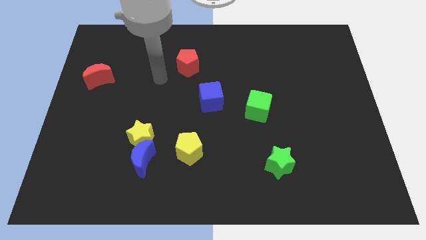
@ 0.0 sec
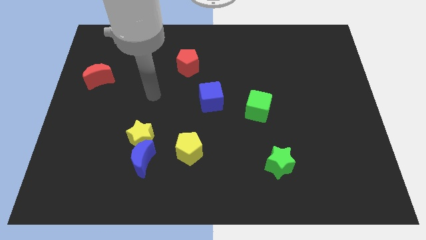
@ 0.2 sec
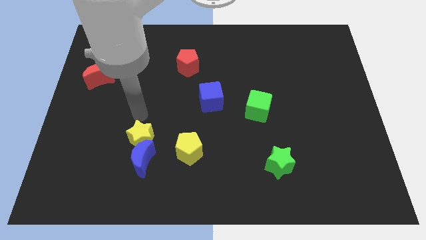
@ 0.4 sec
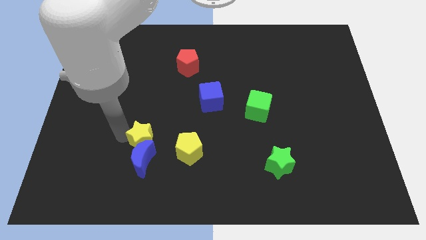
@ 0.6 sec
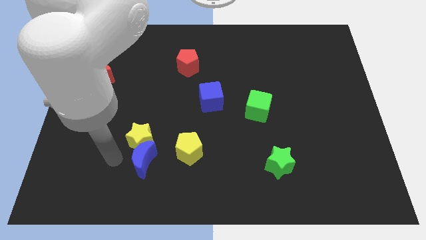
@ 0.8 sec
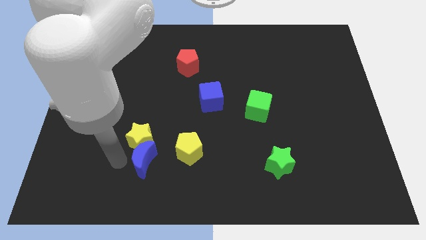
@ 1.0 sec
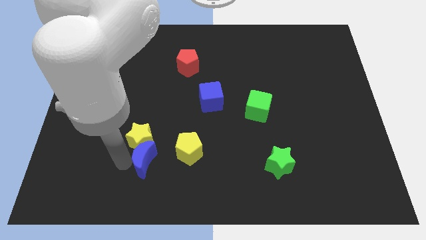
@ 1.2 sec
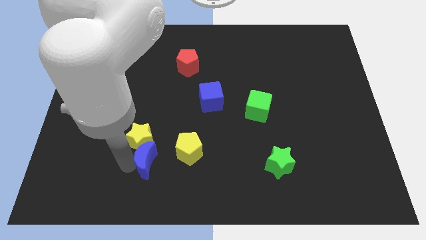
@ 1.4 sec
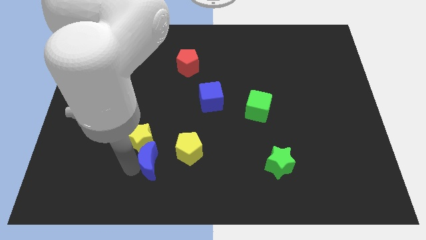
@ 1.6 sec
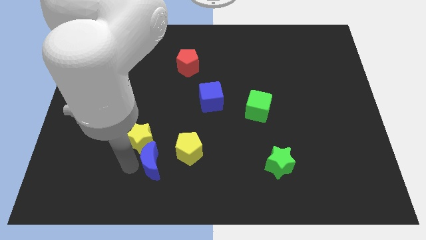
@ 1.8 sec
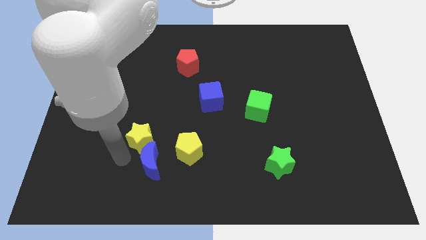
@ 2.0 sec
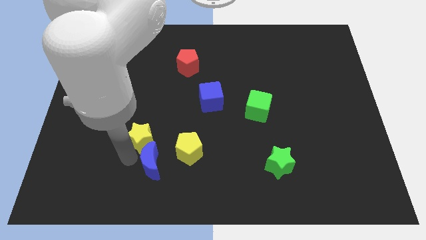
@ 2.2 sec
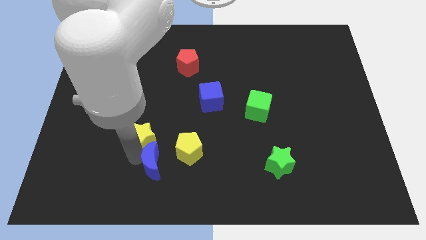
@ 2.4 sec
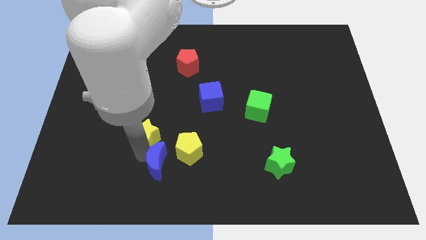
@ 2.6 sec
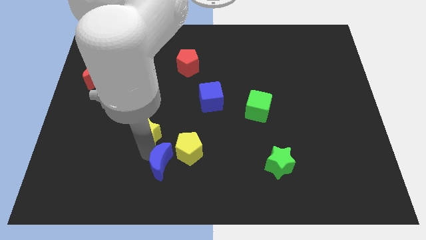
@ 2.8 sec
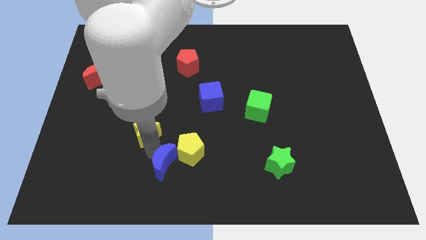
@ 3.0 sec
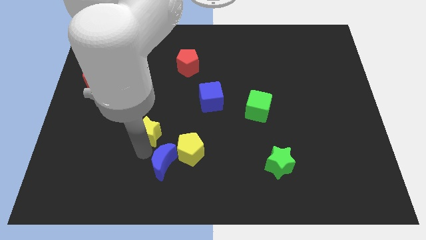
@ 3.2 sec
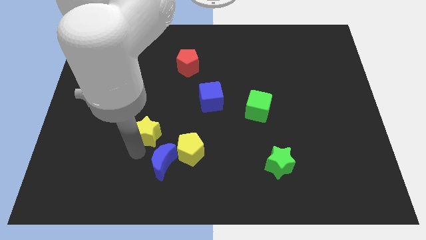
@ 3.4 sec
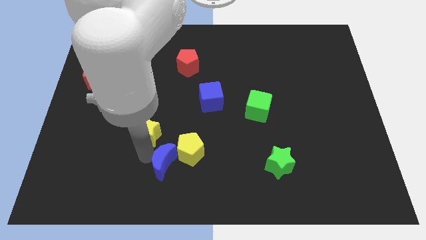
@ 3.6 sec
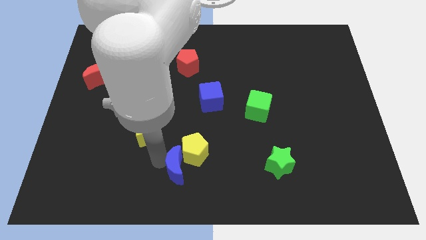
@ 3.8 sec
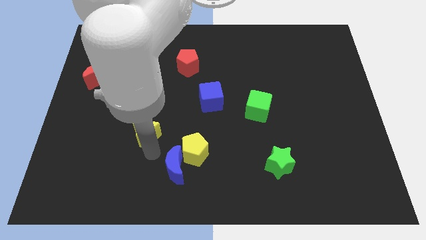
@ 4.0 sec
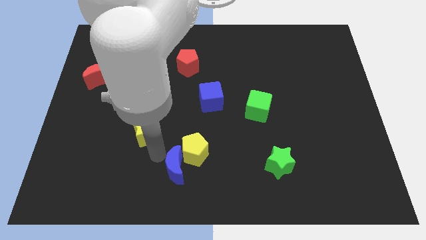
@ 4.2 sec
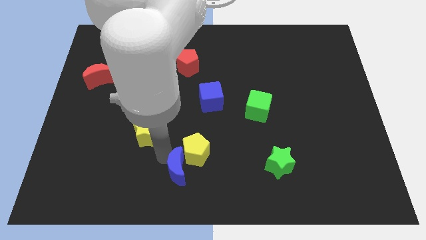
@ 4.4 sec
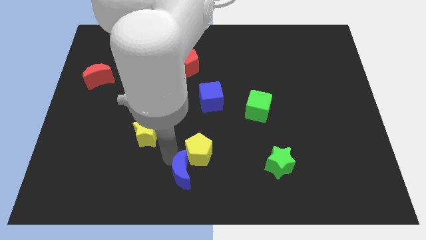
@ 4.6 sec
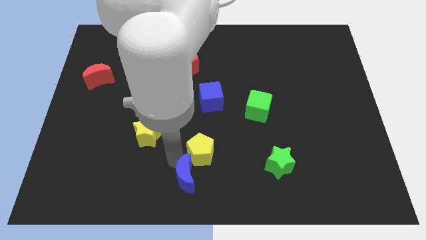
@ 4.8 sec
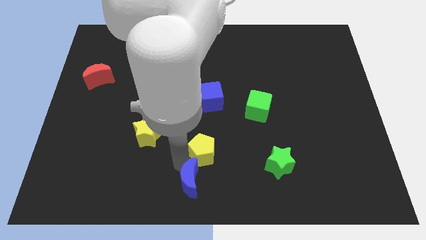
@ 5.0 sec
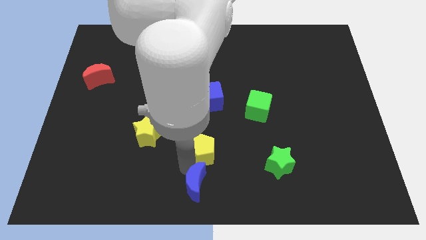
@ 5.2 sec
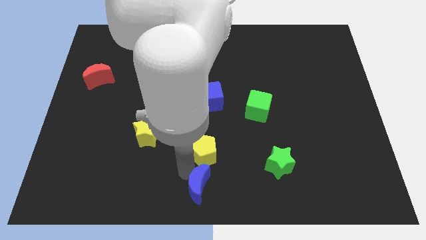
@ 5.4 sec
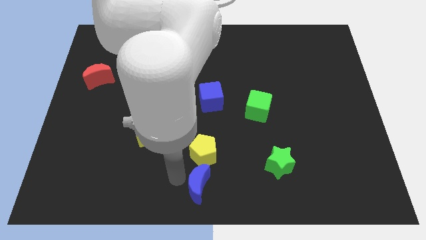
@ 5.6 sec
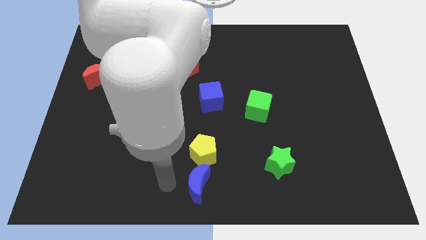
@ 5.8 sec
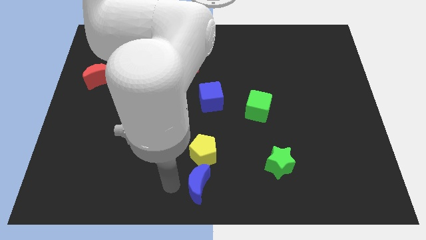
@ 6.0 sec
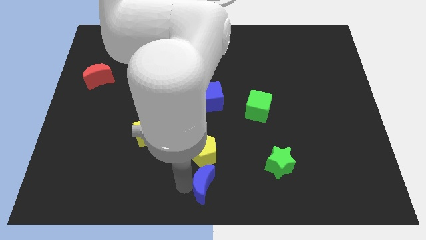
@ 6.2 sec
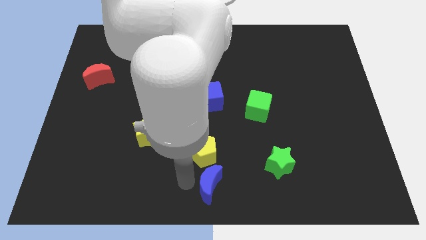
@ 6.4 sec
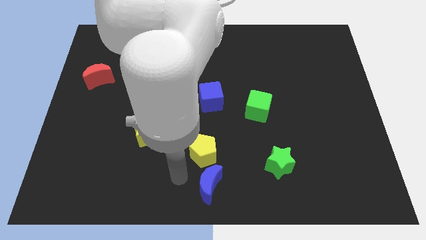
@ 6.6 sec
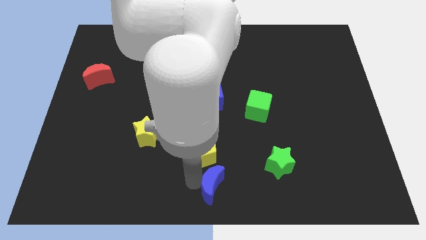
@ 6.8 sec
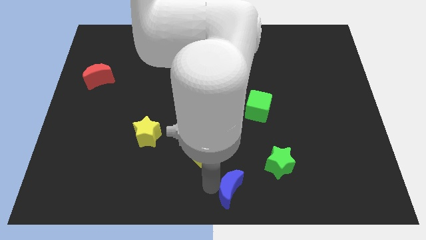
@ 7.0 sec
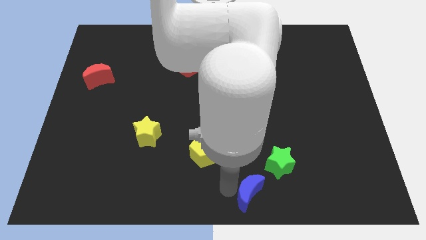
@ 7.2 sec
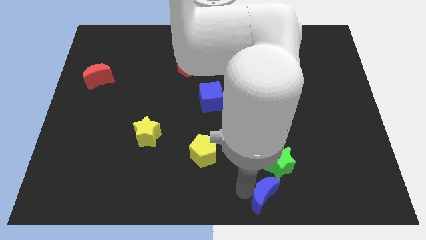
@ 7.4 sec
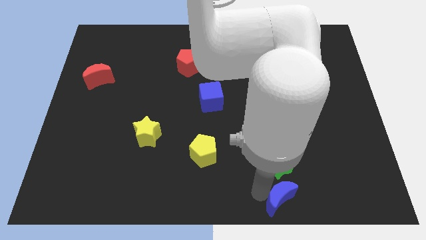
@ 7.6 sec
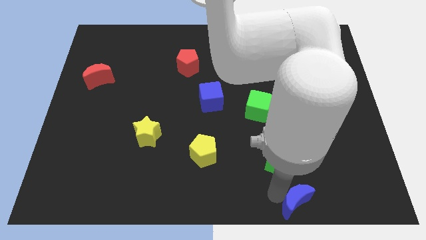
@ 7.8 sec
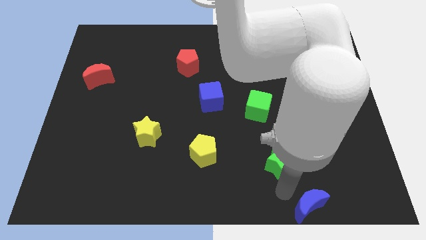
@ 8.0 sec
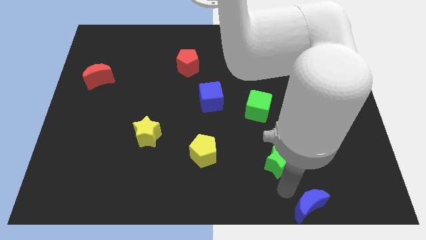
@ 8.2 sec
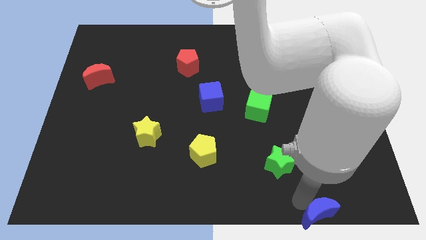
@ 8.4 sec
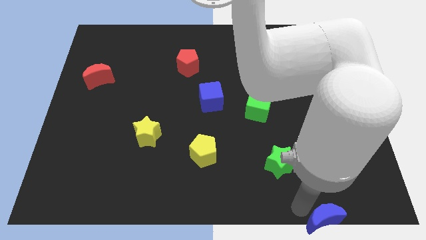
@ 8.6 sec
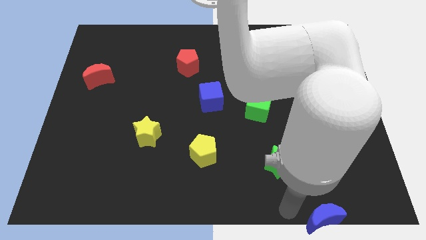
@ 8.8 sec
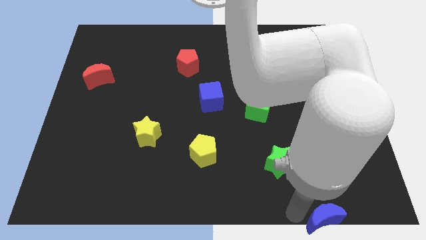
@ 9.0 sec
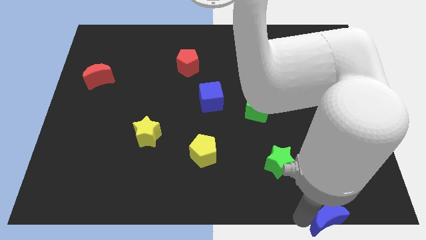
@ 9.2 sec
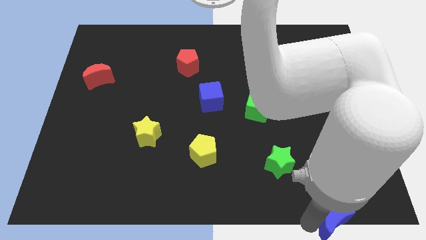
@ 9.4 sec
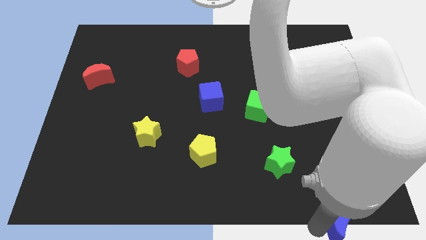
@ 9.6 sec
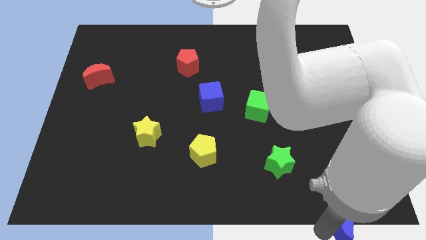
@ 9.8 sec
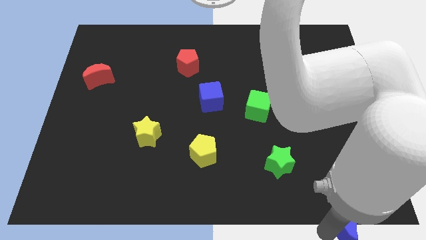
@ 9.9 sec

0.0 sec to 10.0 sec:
put the blue moon to the bottom right

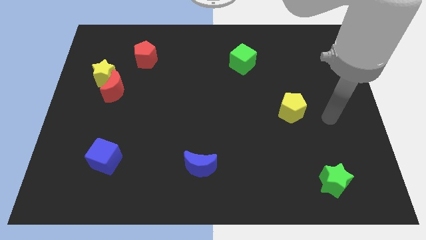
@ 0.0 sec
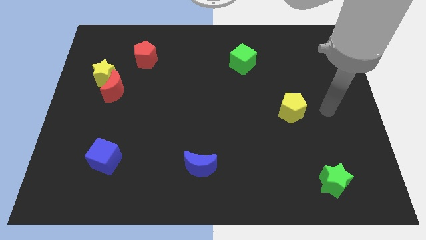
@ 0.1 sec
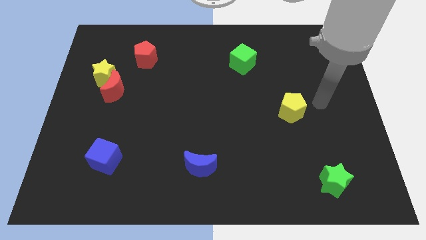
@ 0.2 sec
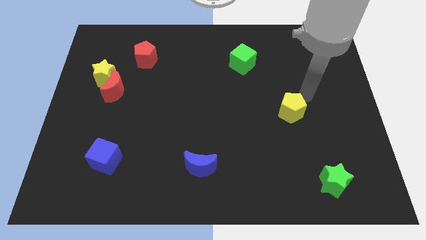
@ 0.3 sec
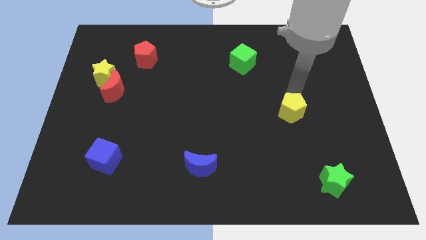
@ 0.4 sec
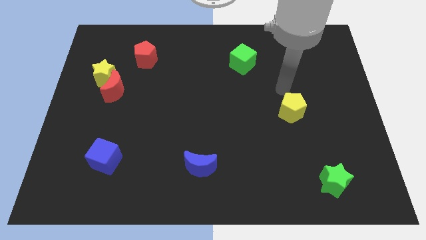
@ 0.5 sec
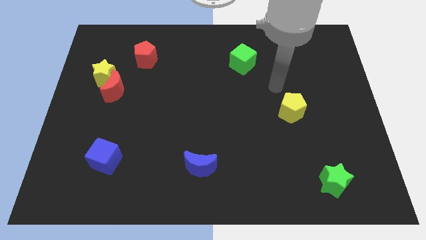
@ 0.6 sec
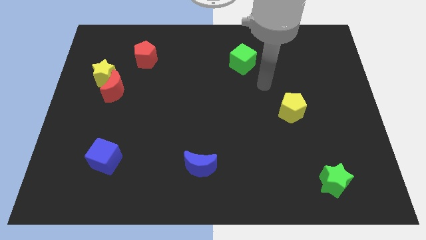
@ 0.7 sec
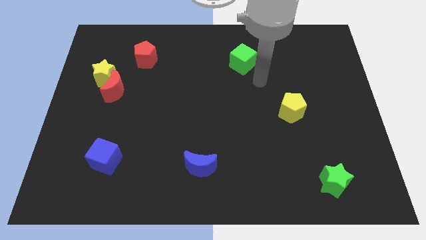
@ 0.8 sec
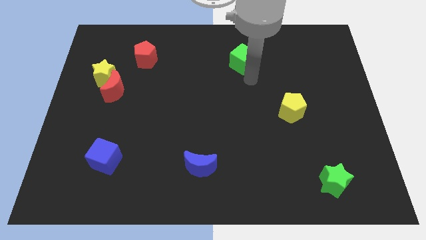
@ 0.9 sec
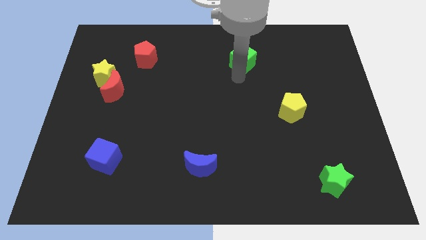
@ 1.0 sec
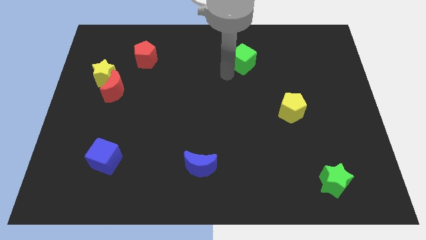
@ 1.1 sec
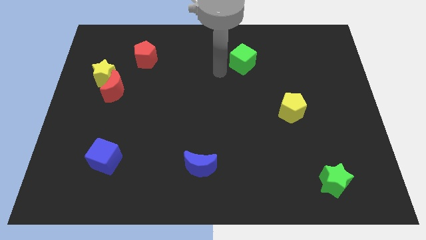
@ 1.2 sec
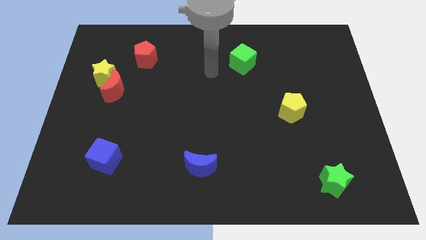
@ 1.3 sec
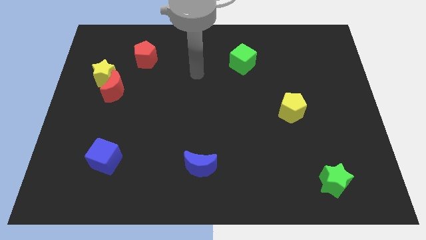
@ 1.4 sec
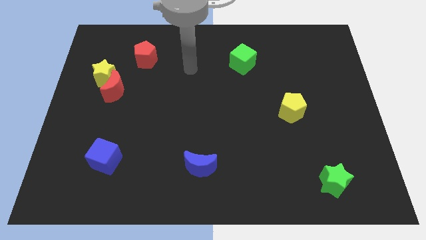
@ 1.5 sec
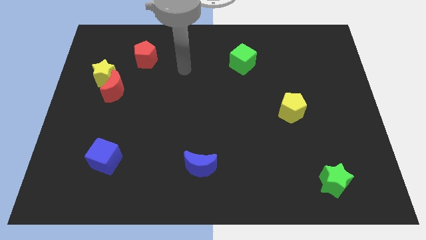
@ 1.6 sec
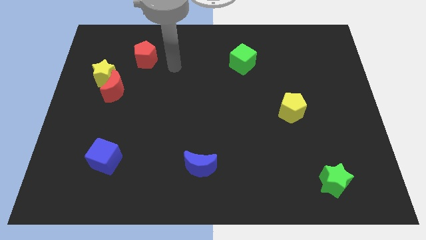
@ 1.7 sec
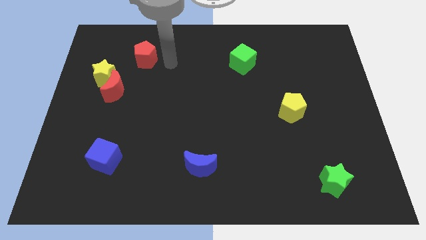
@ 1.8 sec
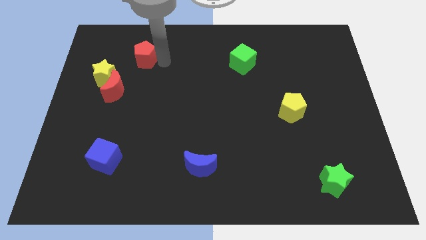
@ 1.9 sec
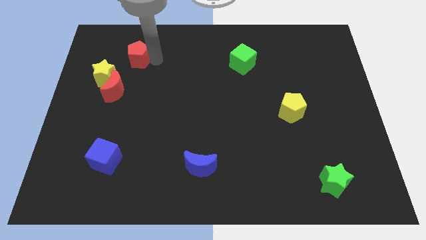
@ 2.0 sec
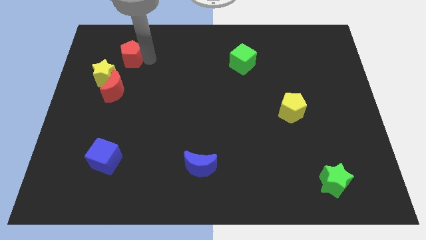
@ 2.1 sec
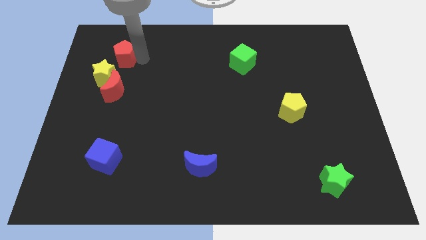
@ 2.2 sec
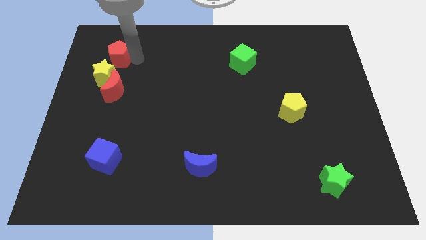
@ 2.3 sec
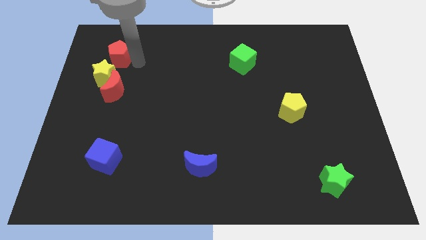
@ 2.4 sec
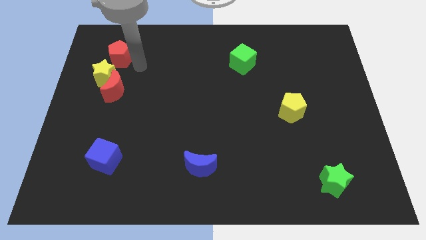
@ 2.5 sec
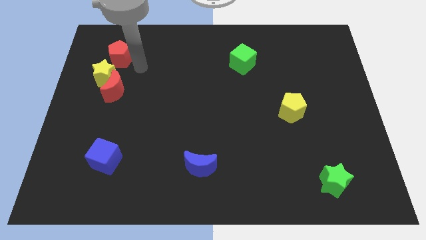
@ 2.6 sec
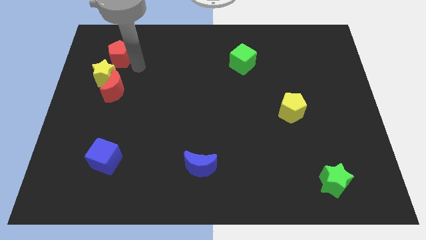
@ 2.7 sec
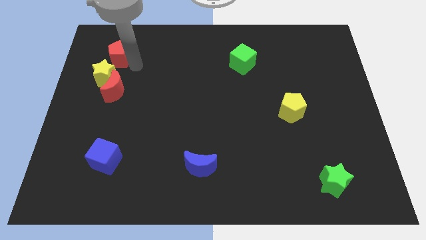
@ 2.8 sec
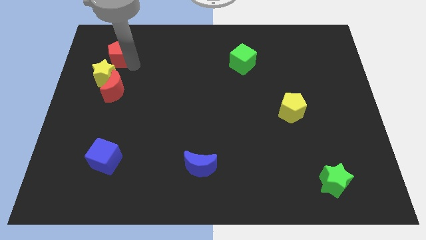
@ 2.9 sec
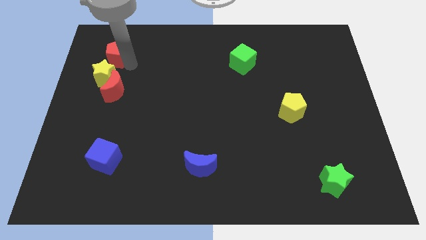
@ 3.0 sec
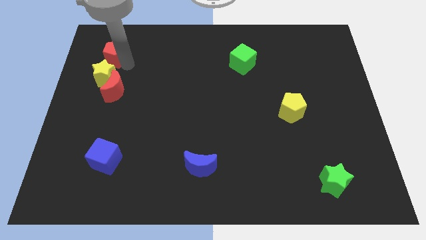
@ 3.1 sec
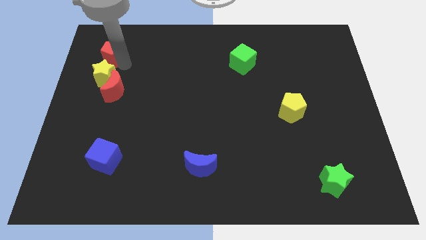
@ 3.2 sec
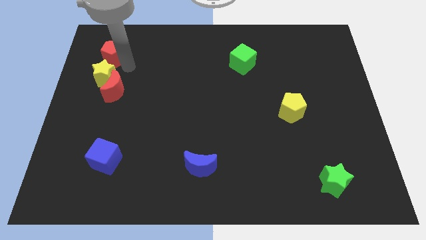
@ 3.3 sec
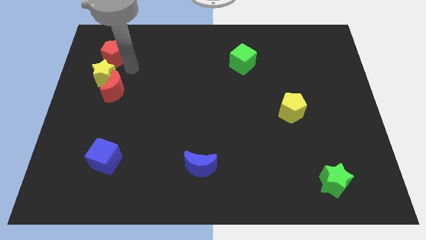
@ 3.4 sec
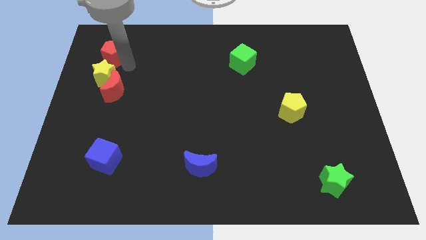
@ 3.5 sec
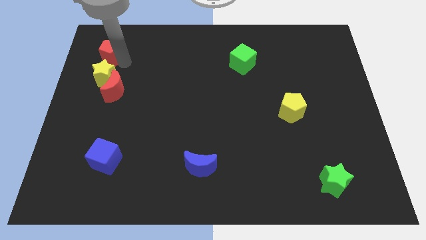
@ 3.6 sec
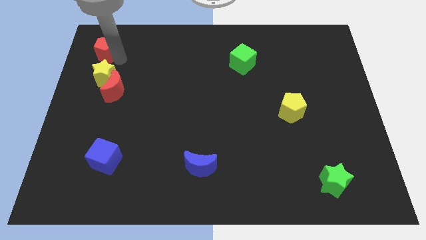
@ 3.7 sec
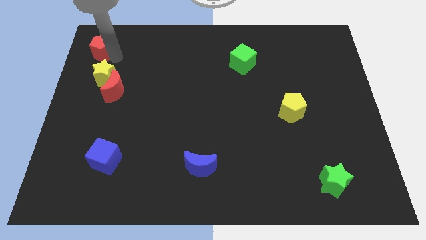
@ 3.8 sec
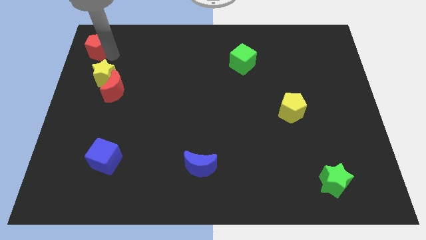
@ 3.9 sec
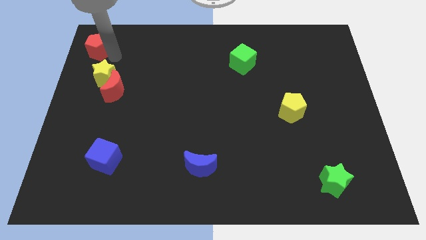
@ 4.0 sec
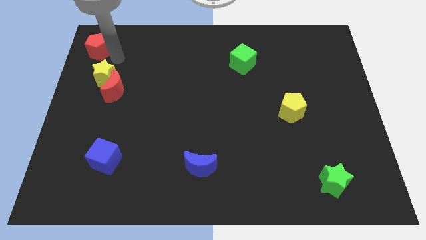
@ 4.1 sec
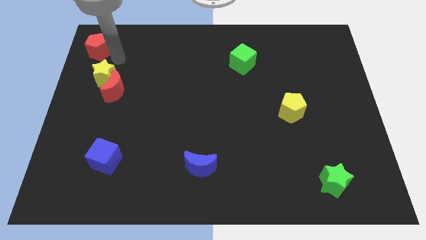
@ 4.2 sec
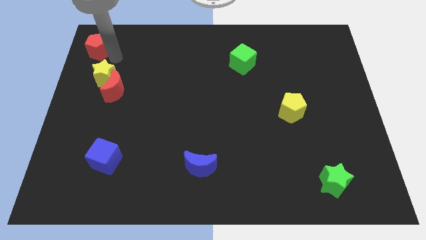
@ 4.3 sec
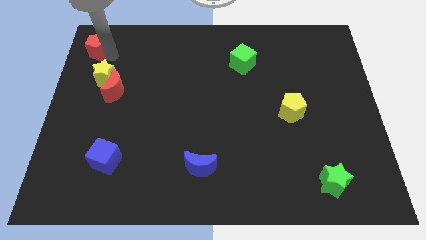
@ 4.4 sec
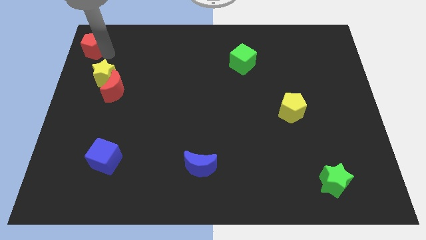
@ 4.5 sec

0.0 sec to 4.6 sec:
put the red pentagon to the upper left corner
